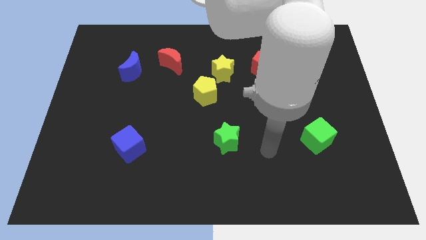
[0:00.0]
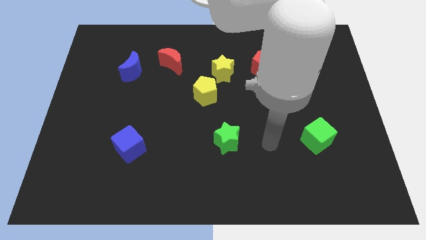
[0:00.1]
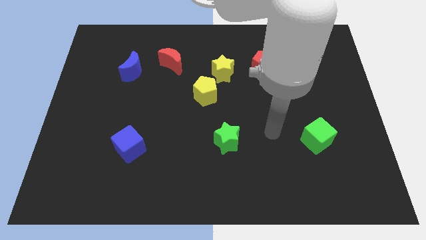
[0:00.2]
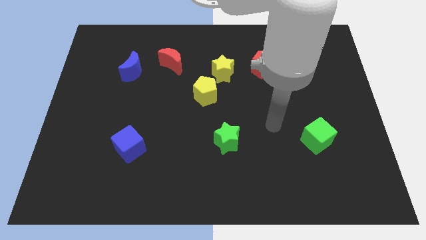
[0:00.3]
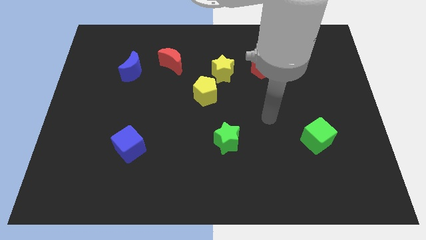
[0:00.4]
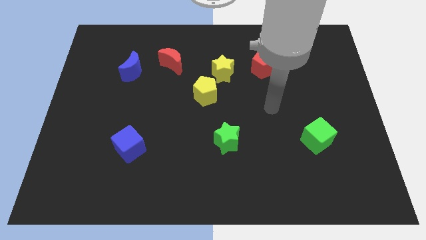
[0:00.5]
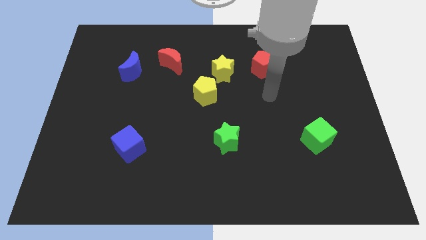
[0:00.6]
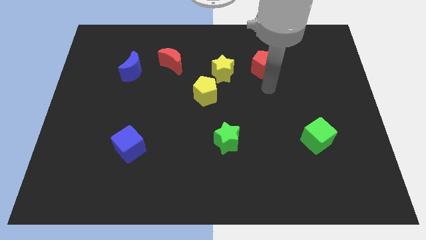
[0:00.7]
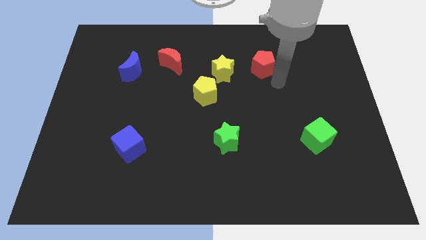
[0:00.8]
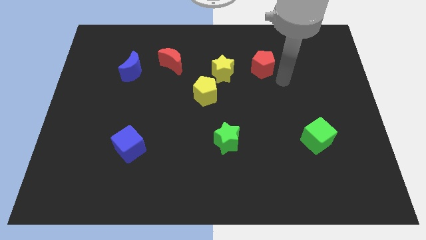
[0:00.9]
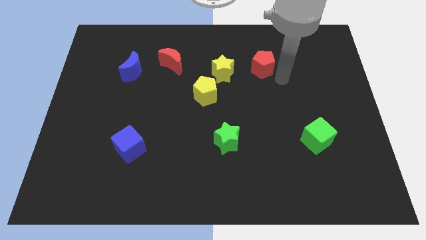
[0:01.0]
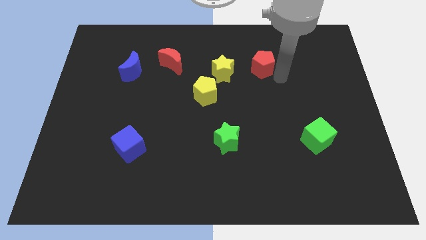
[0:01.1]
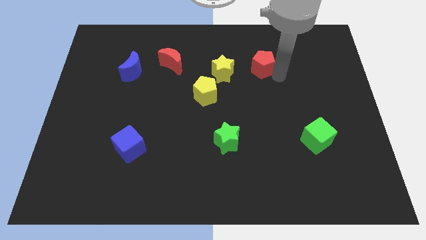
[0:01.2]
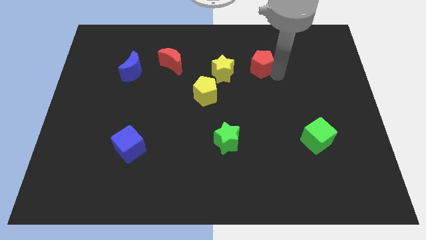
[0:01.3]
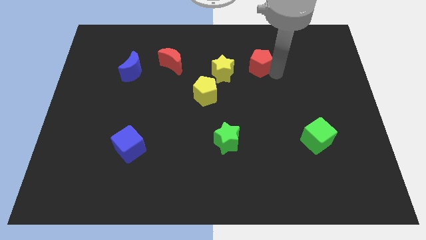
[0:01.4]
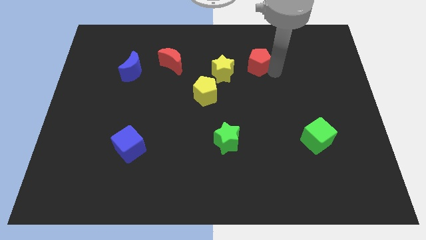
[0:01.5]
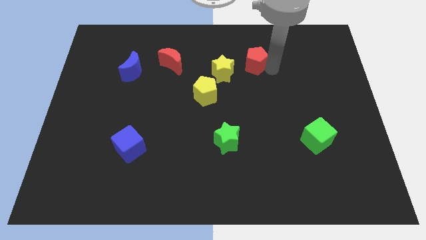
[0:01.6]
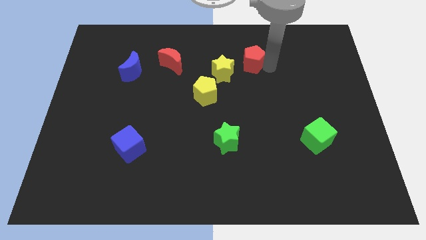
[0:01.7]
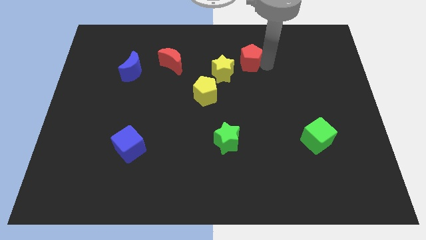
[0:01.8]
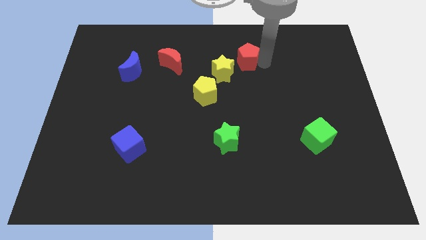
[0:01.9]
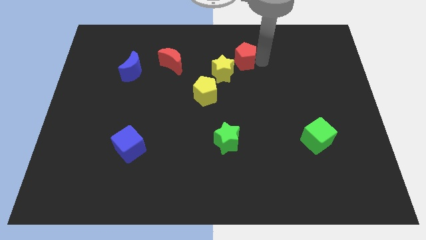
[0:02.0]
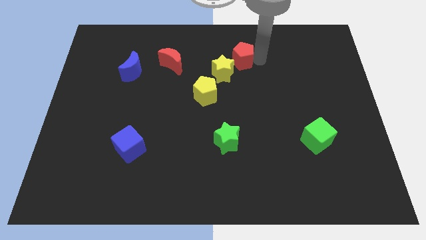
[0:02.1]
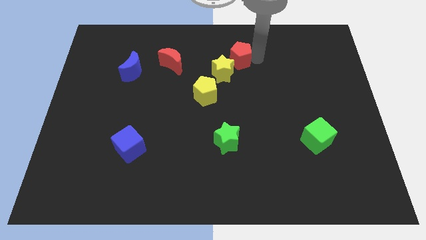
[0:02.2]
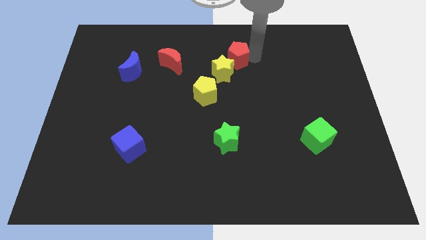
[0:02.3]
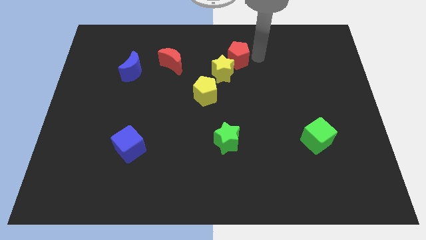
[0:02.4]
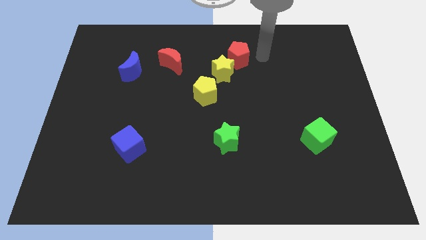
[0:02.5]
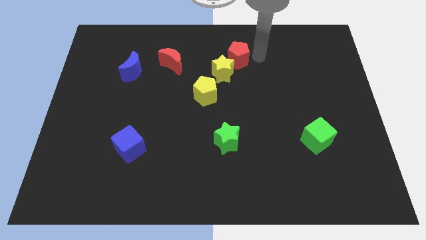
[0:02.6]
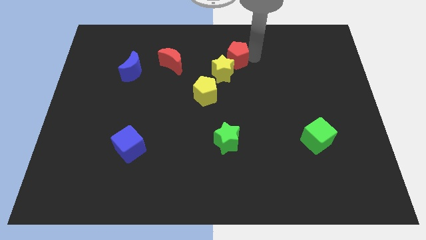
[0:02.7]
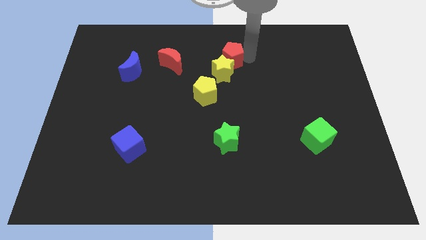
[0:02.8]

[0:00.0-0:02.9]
slightly push the red pentagon left

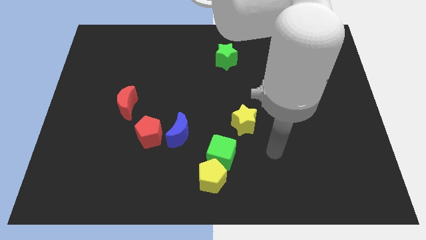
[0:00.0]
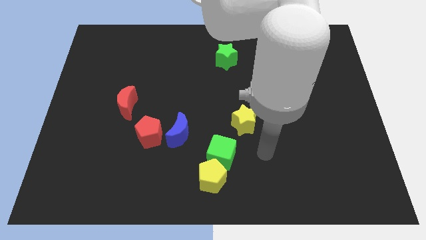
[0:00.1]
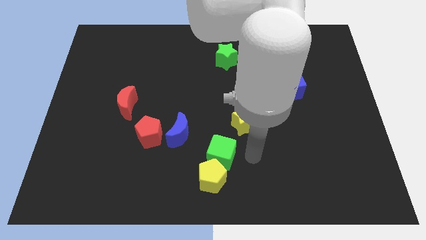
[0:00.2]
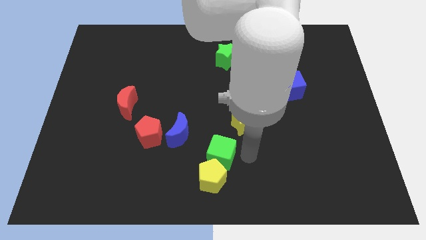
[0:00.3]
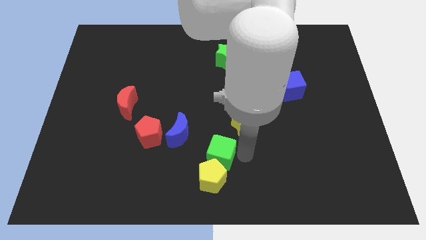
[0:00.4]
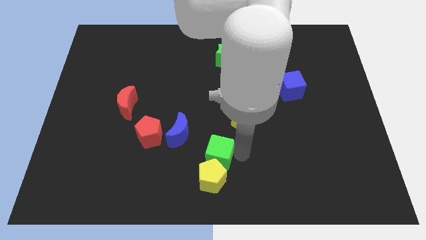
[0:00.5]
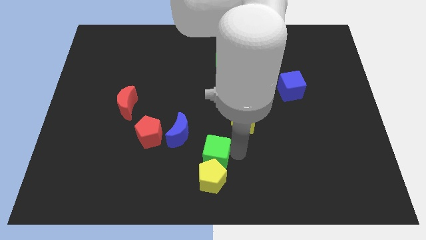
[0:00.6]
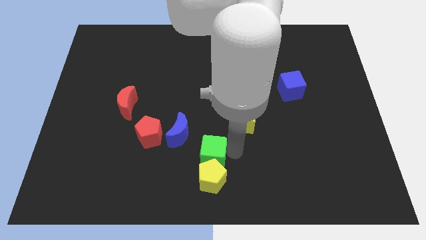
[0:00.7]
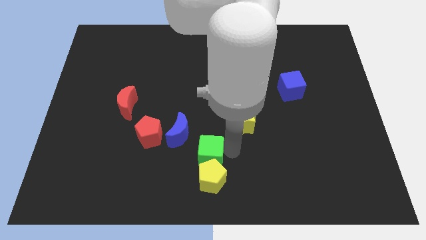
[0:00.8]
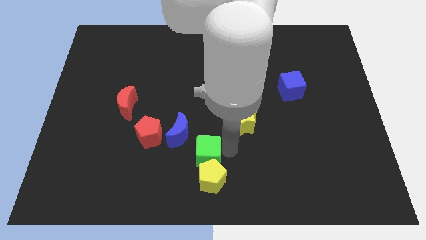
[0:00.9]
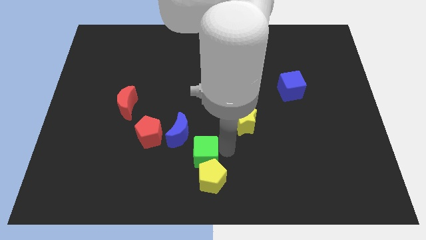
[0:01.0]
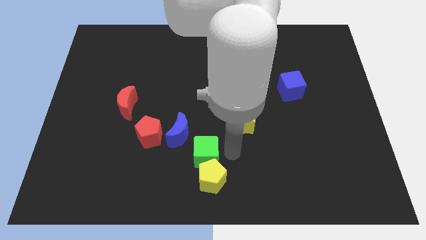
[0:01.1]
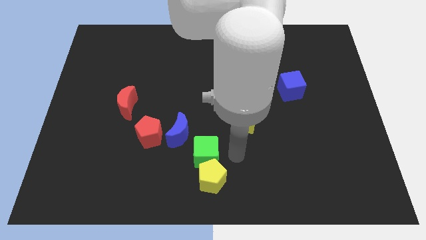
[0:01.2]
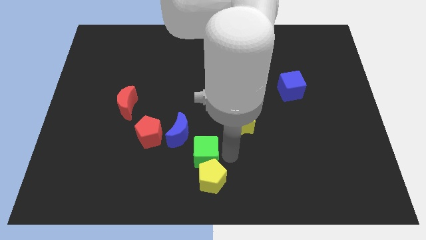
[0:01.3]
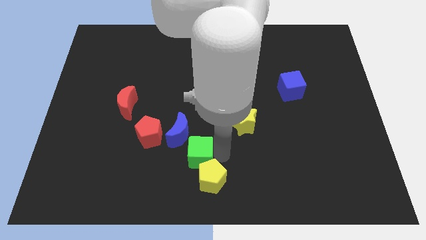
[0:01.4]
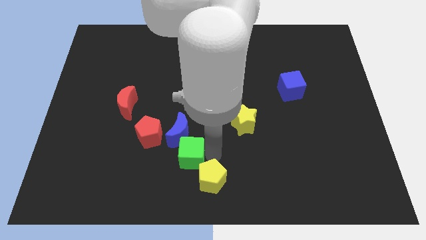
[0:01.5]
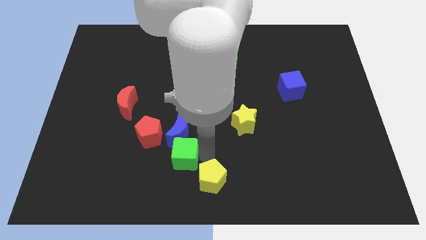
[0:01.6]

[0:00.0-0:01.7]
push the green cube slightly to the left

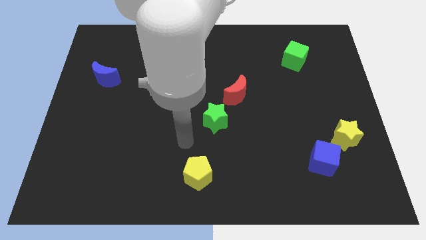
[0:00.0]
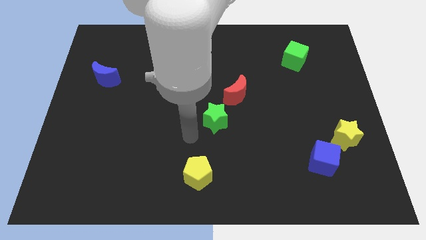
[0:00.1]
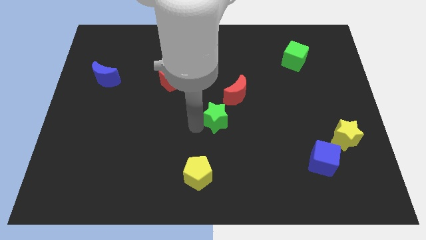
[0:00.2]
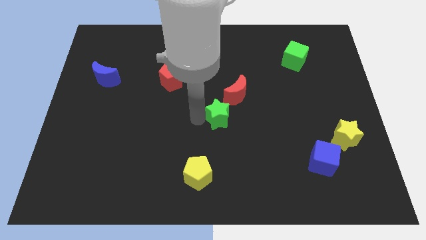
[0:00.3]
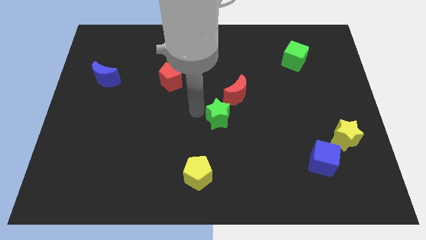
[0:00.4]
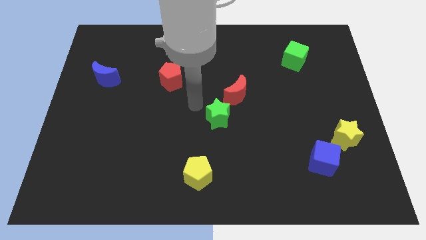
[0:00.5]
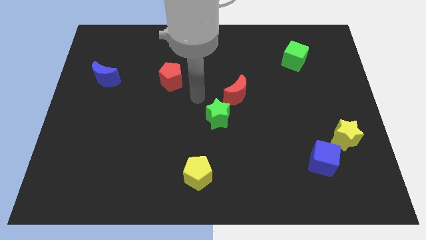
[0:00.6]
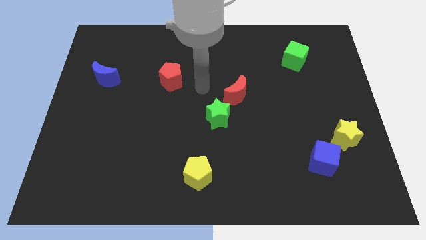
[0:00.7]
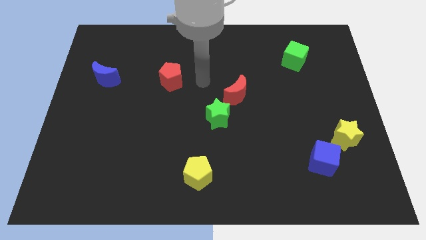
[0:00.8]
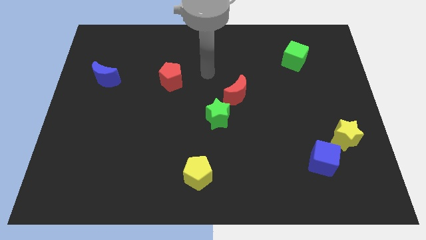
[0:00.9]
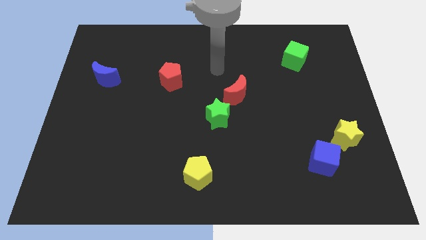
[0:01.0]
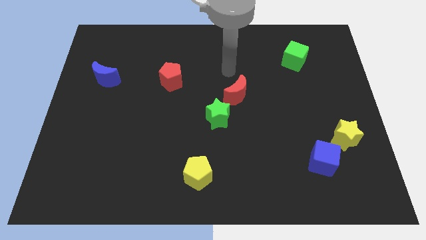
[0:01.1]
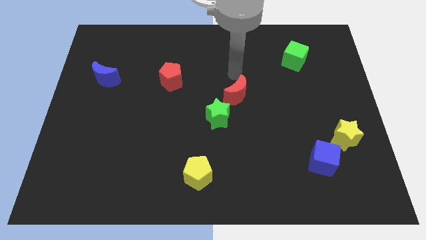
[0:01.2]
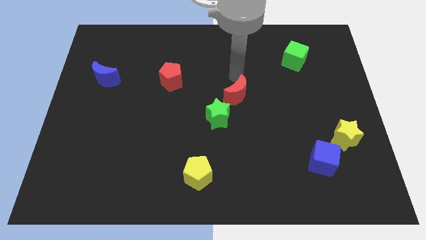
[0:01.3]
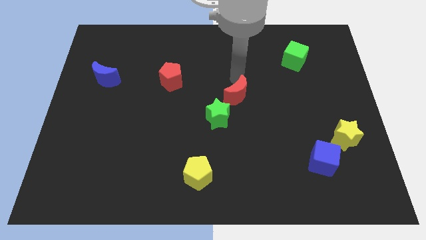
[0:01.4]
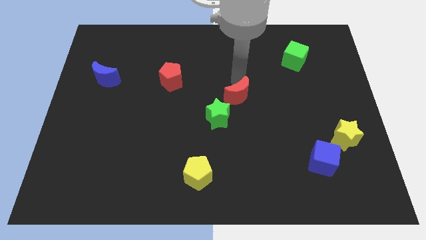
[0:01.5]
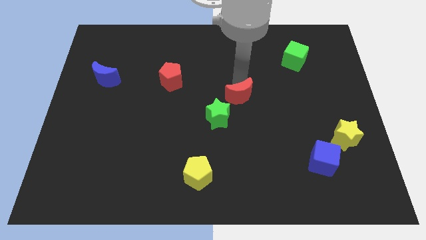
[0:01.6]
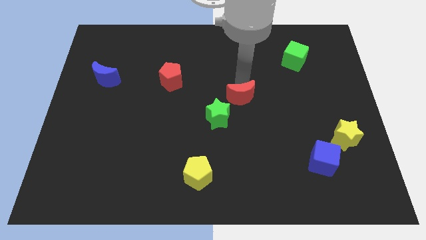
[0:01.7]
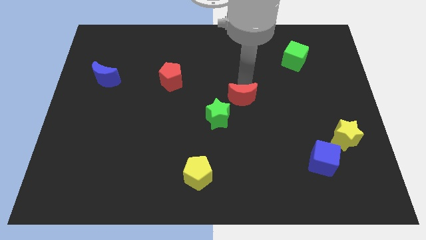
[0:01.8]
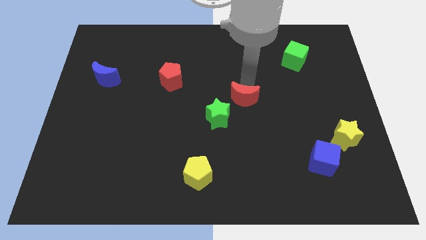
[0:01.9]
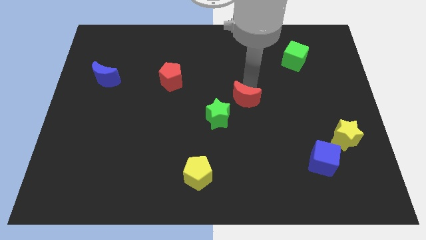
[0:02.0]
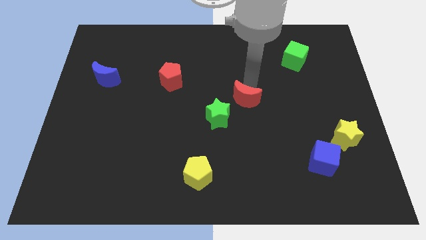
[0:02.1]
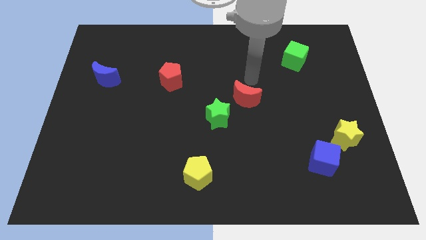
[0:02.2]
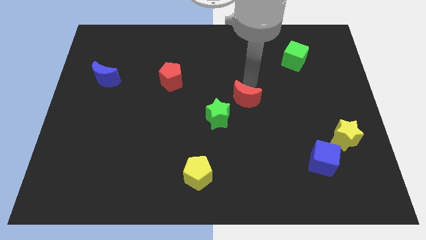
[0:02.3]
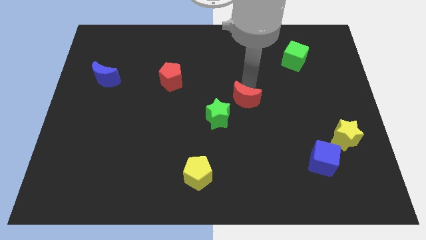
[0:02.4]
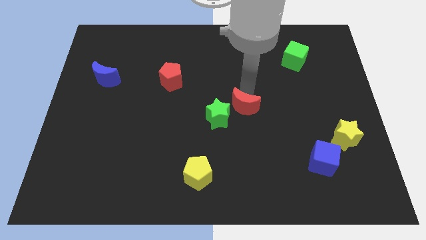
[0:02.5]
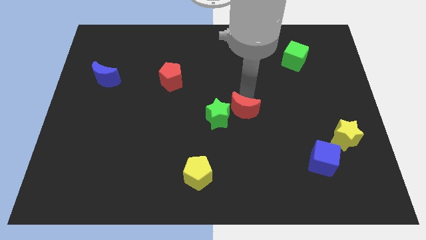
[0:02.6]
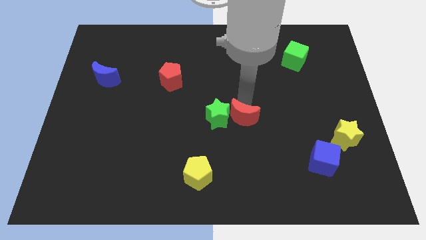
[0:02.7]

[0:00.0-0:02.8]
push the red moon down a bit

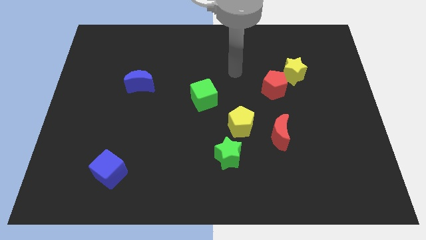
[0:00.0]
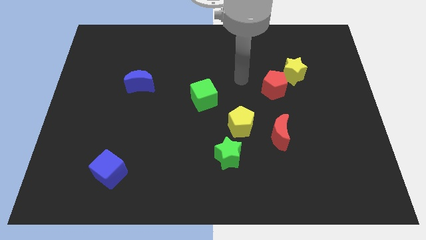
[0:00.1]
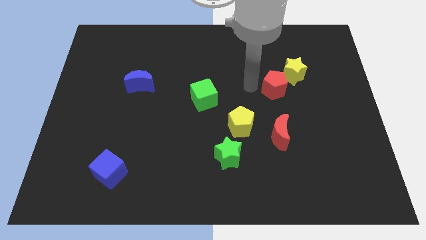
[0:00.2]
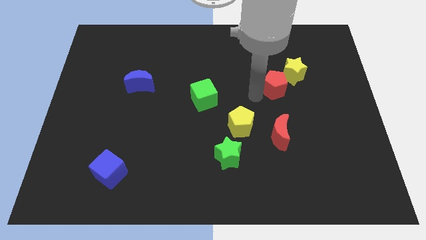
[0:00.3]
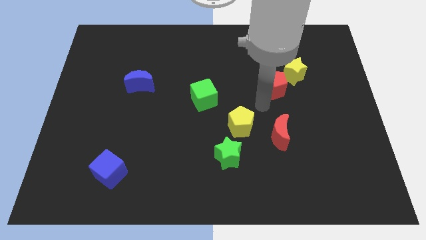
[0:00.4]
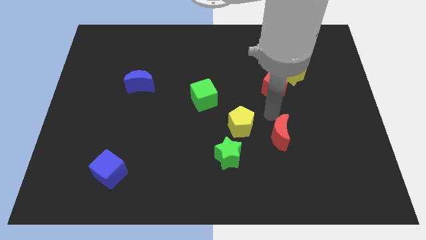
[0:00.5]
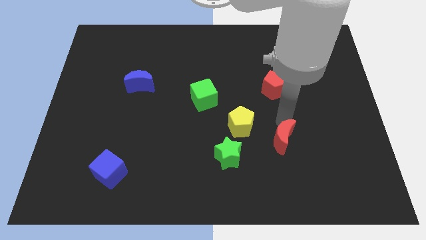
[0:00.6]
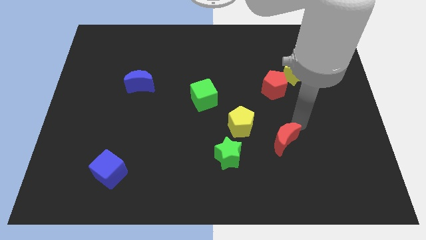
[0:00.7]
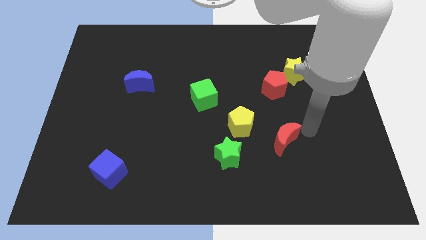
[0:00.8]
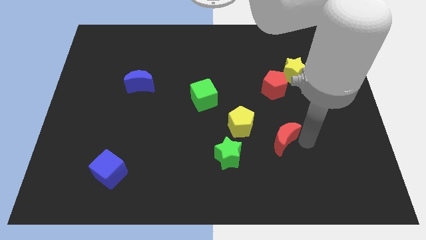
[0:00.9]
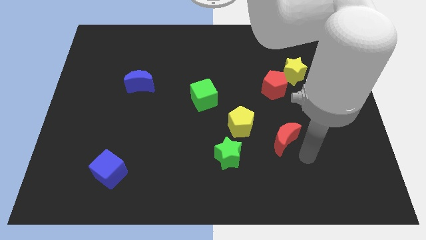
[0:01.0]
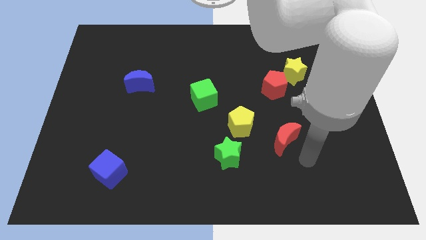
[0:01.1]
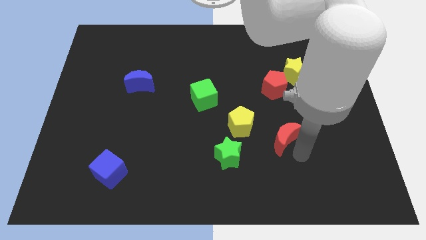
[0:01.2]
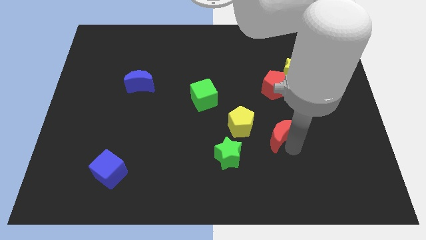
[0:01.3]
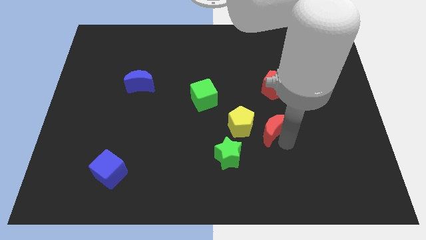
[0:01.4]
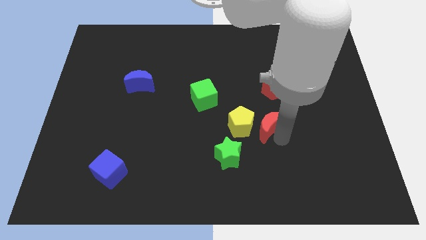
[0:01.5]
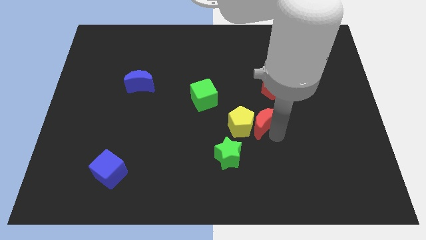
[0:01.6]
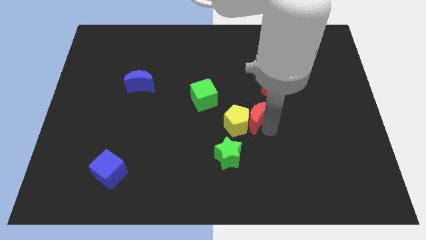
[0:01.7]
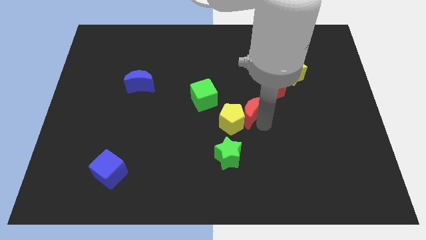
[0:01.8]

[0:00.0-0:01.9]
move the red moon a little bit up and to the left diagonally
